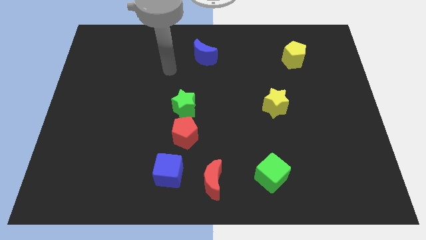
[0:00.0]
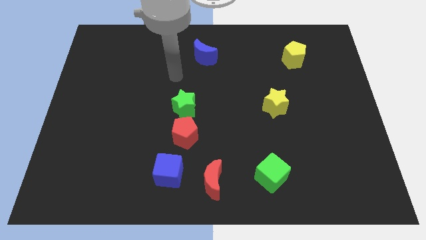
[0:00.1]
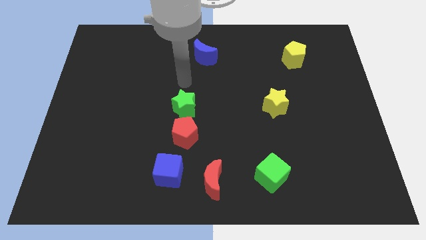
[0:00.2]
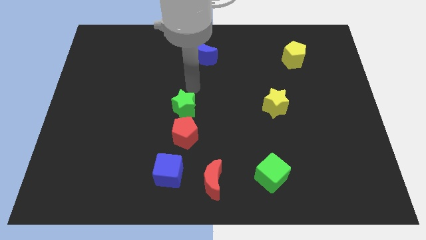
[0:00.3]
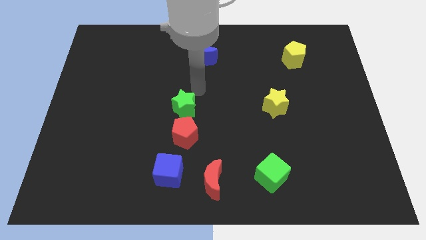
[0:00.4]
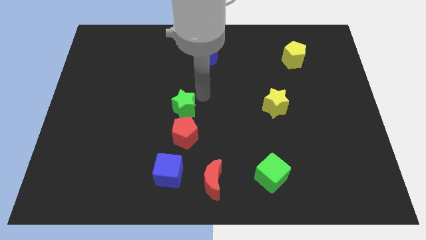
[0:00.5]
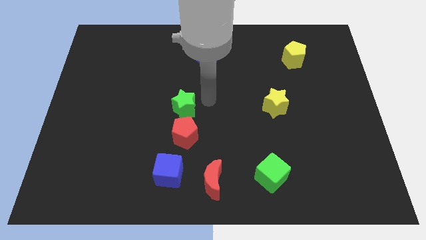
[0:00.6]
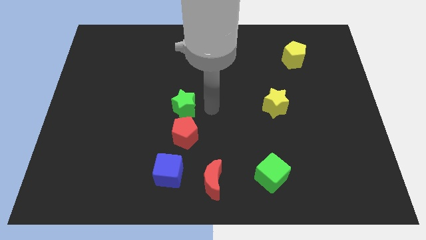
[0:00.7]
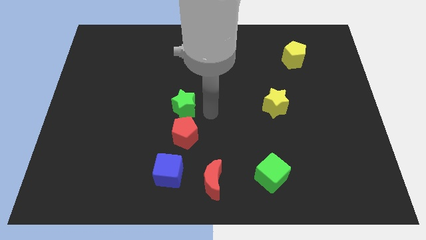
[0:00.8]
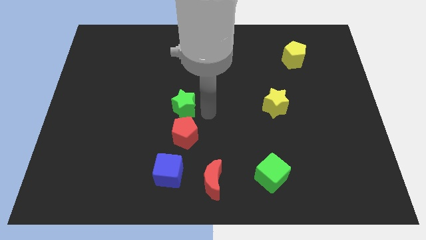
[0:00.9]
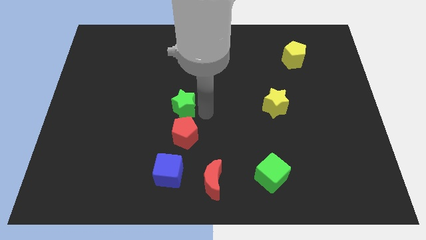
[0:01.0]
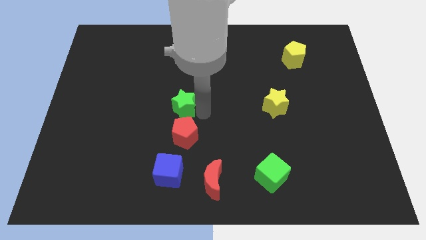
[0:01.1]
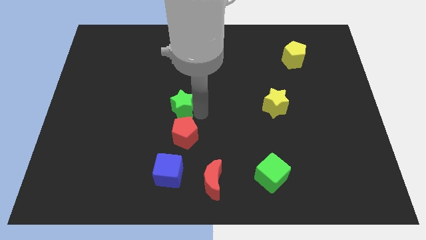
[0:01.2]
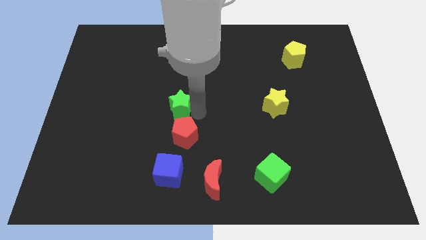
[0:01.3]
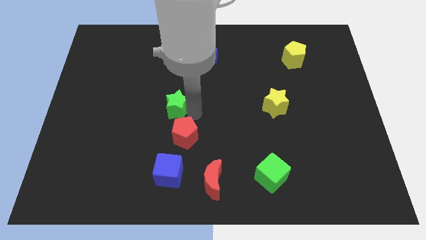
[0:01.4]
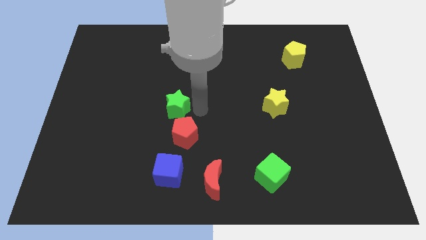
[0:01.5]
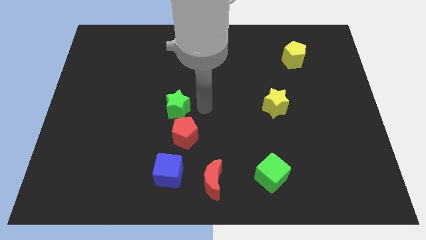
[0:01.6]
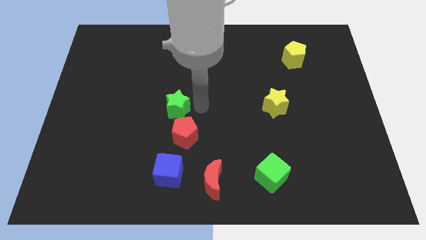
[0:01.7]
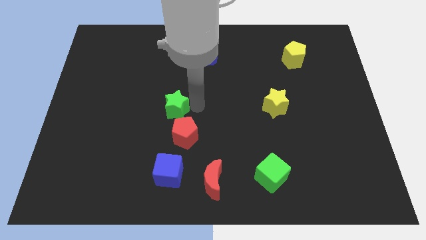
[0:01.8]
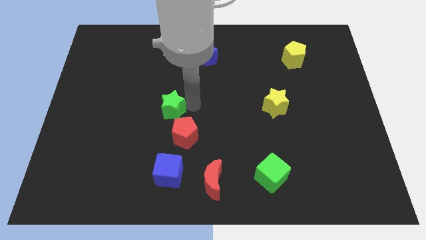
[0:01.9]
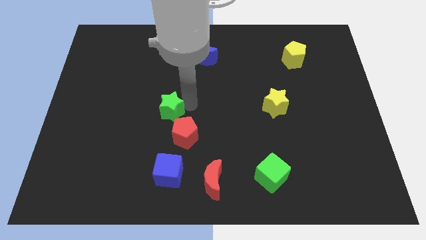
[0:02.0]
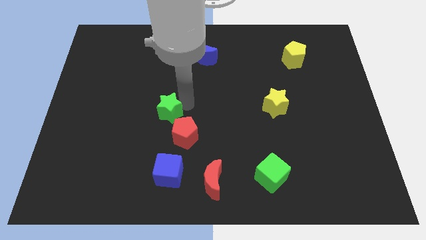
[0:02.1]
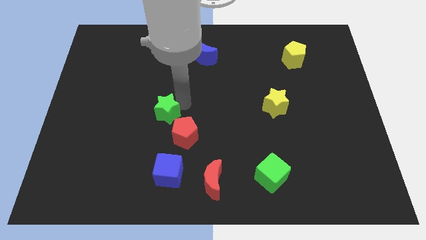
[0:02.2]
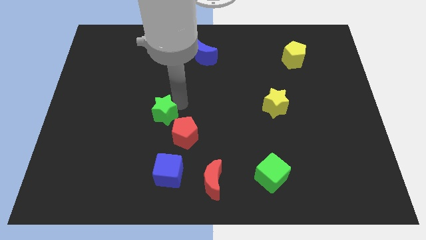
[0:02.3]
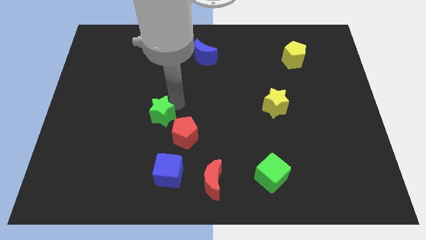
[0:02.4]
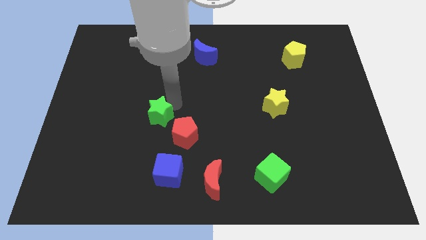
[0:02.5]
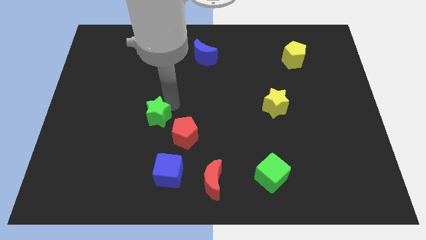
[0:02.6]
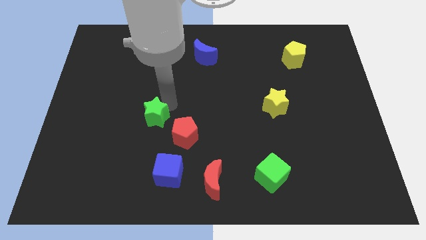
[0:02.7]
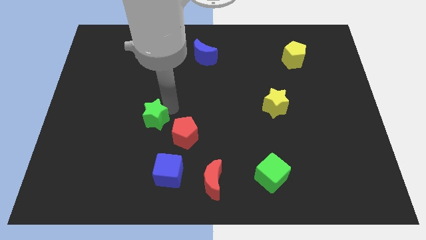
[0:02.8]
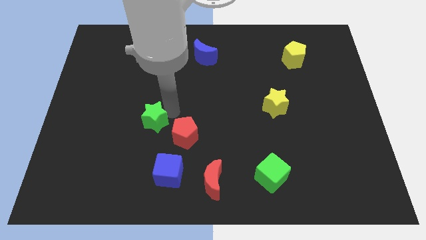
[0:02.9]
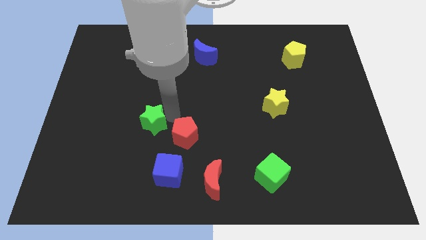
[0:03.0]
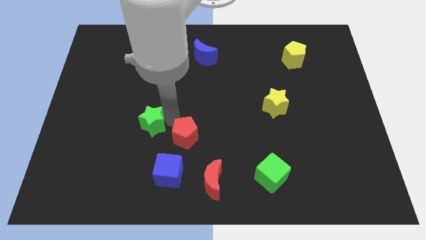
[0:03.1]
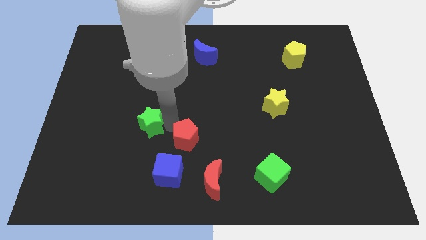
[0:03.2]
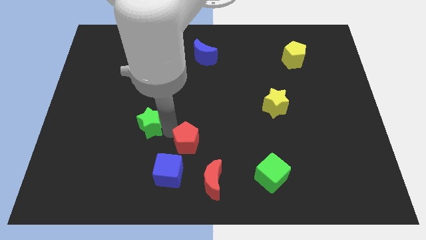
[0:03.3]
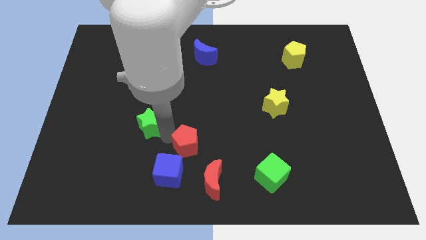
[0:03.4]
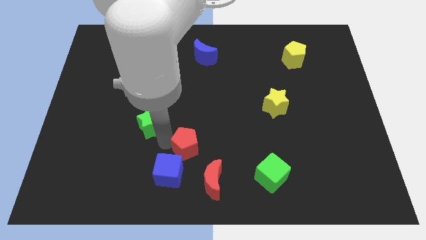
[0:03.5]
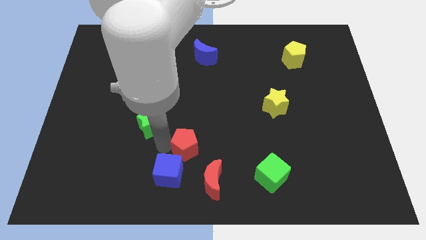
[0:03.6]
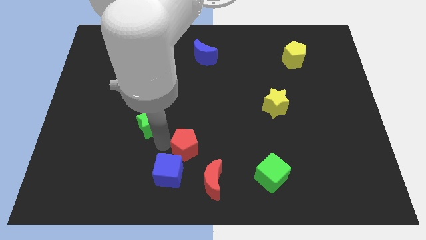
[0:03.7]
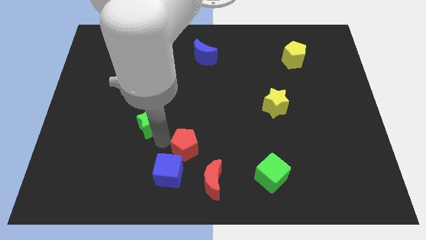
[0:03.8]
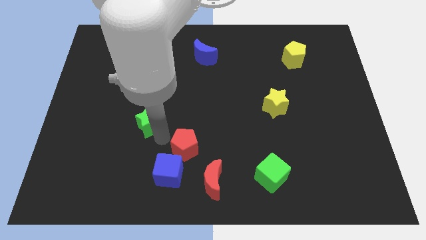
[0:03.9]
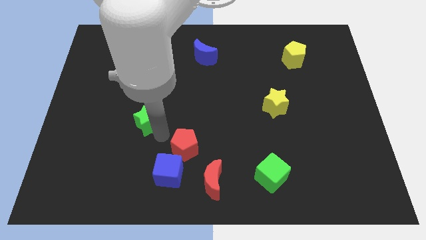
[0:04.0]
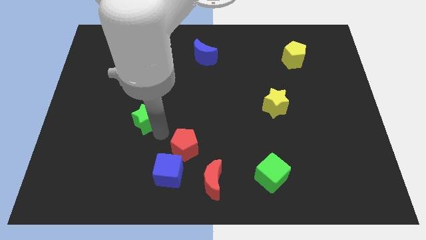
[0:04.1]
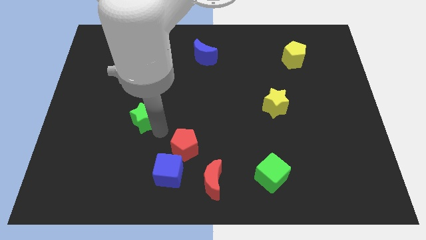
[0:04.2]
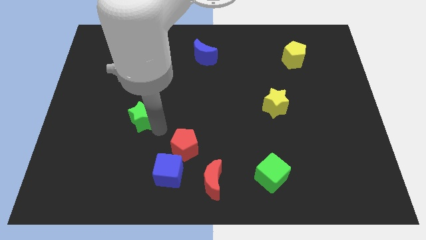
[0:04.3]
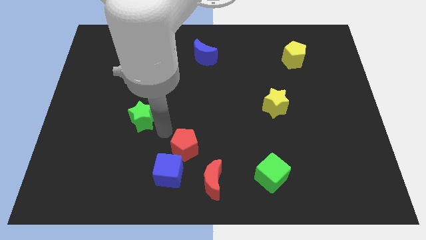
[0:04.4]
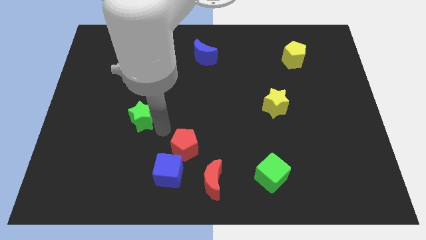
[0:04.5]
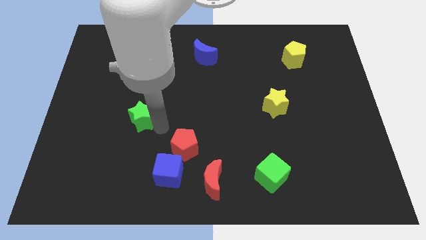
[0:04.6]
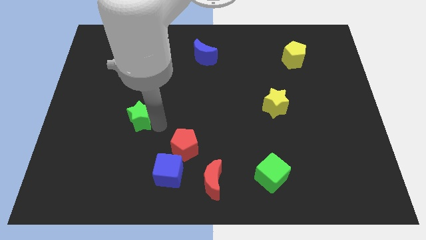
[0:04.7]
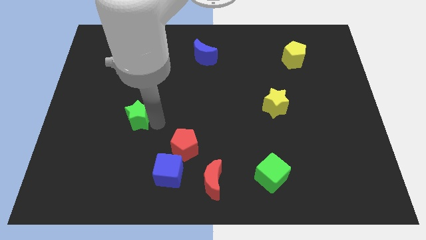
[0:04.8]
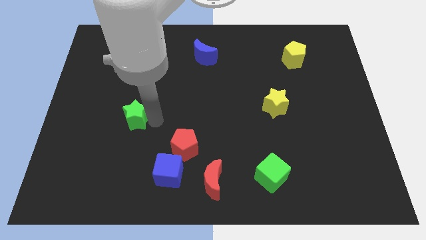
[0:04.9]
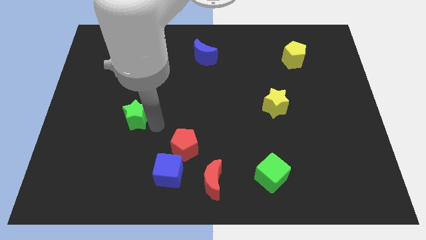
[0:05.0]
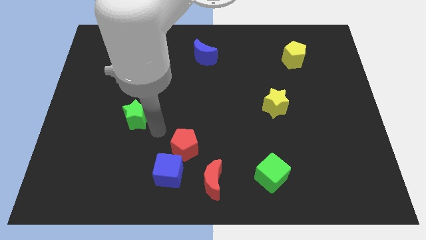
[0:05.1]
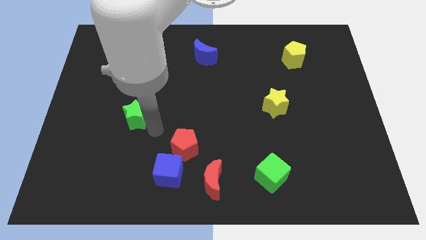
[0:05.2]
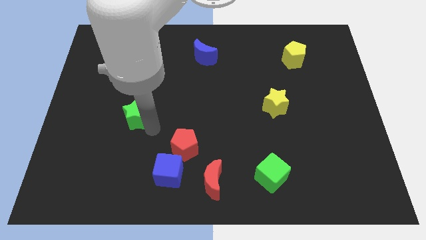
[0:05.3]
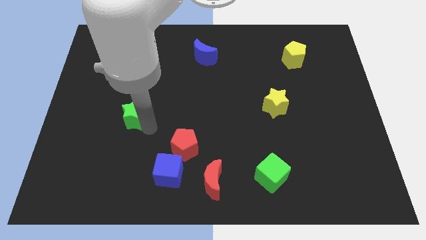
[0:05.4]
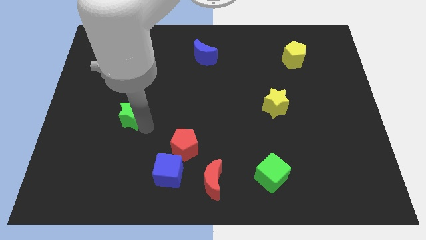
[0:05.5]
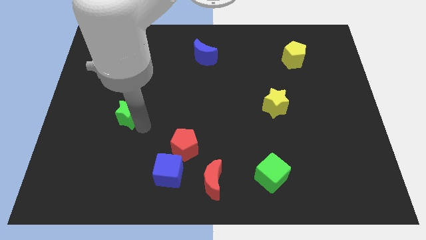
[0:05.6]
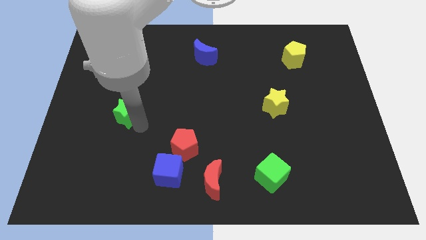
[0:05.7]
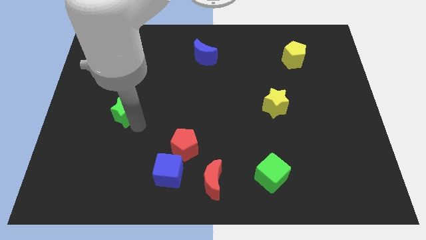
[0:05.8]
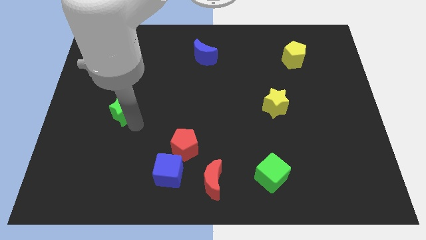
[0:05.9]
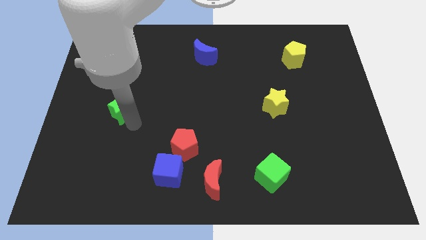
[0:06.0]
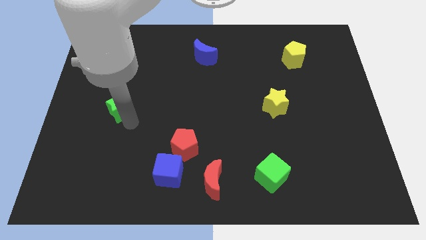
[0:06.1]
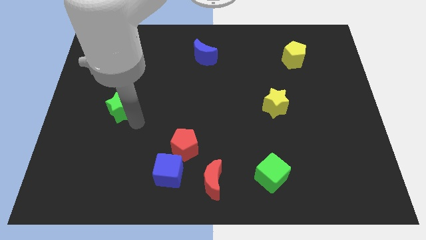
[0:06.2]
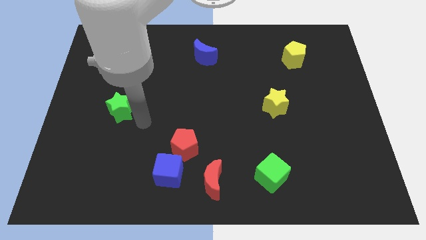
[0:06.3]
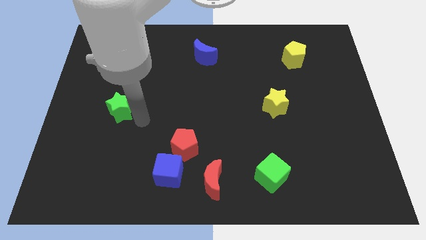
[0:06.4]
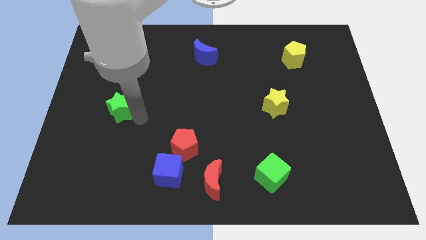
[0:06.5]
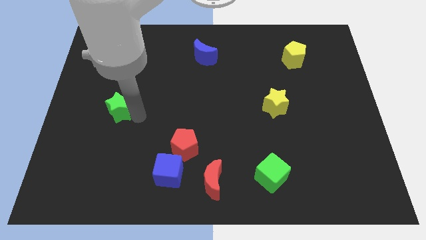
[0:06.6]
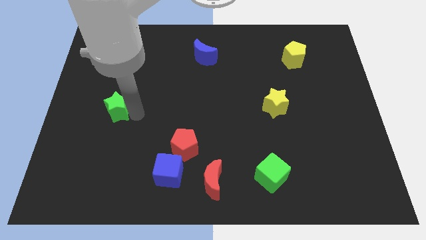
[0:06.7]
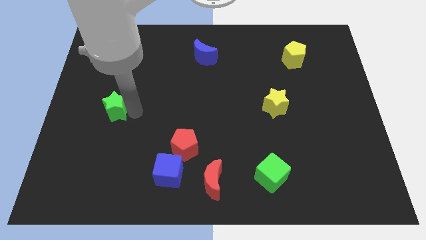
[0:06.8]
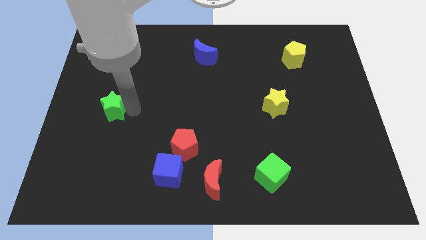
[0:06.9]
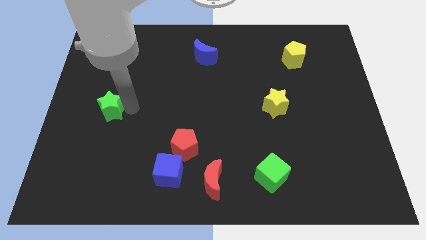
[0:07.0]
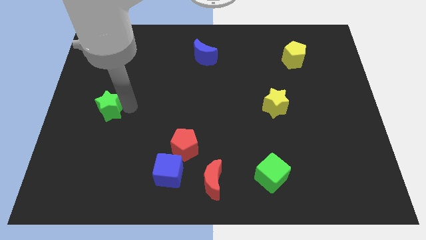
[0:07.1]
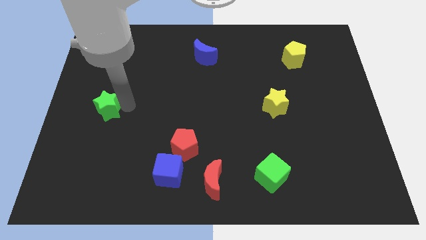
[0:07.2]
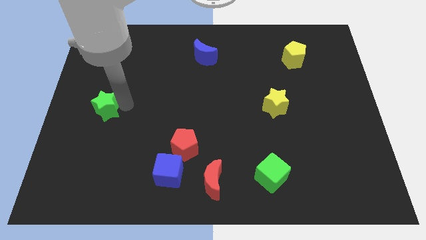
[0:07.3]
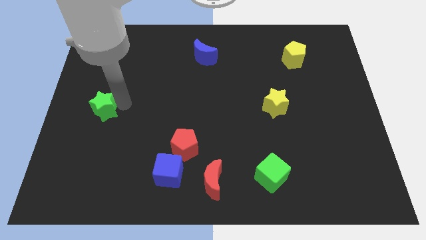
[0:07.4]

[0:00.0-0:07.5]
slide the green star to the left side
